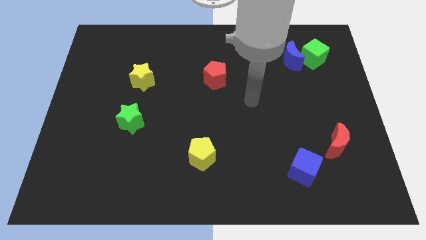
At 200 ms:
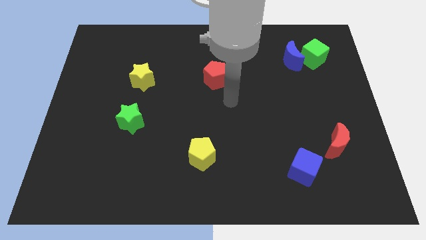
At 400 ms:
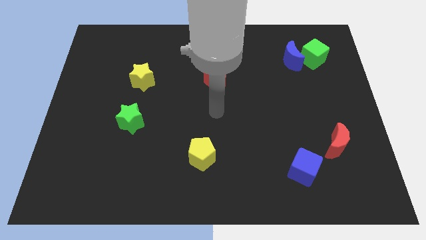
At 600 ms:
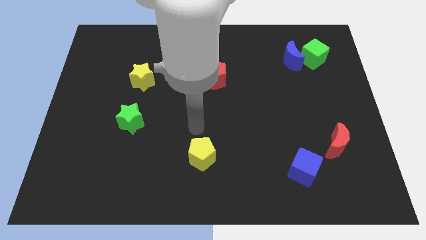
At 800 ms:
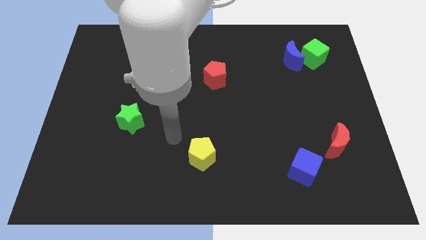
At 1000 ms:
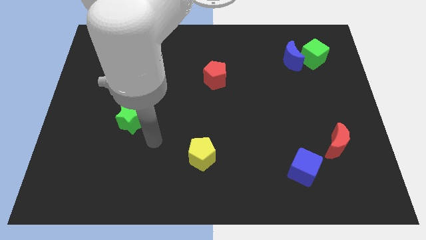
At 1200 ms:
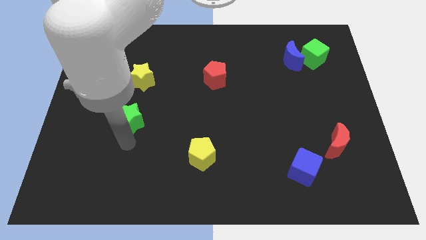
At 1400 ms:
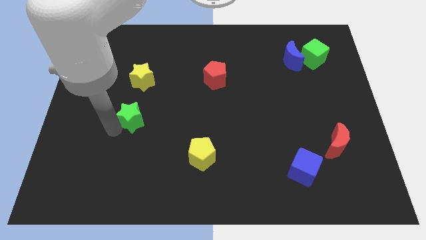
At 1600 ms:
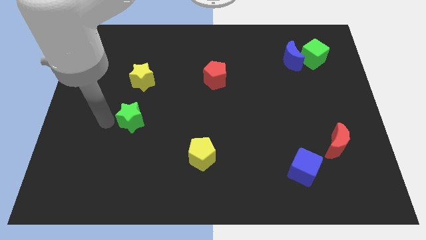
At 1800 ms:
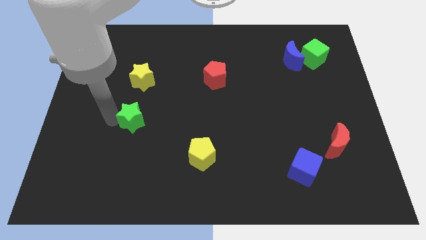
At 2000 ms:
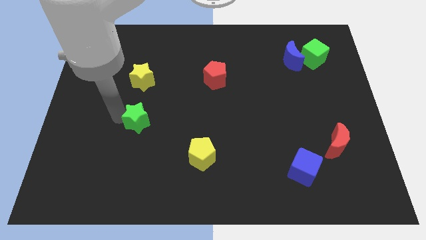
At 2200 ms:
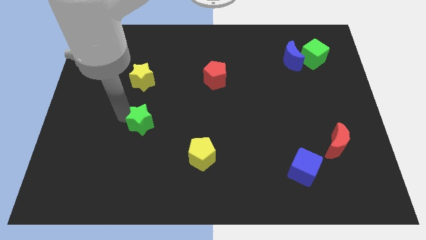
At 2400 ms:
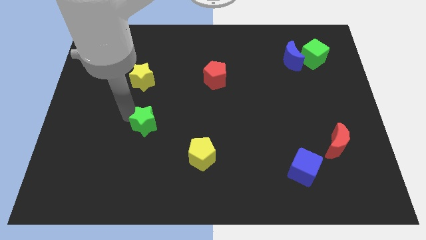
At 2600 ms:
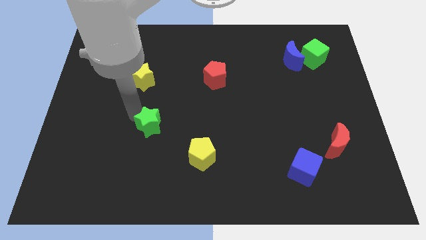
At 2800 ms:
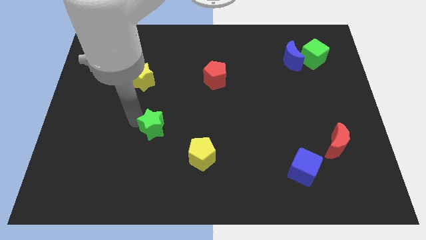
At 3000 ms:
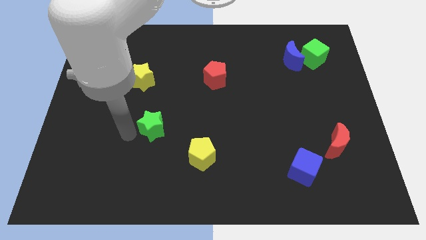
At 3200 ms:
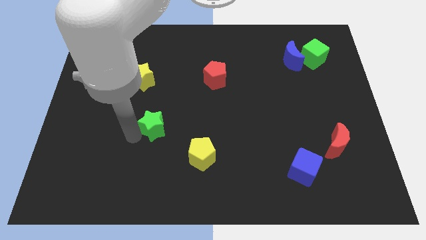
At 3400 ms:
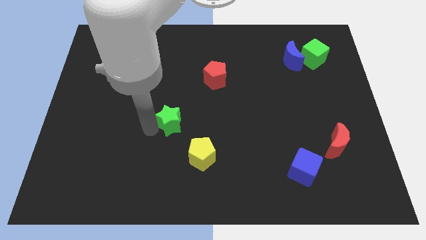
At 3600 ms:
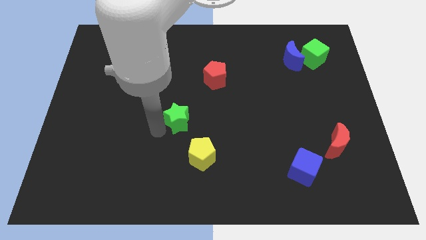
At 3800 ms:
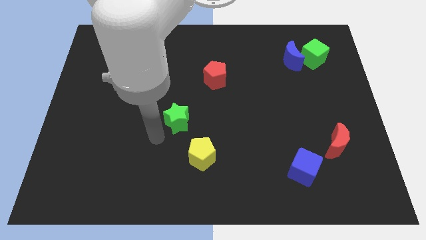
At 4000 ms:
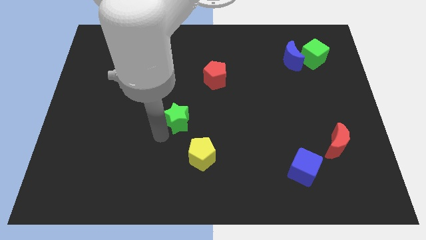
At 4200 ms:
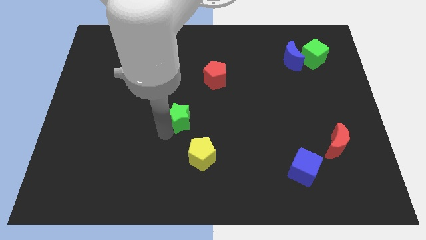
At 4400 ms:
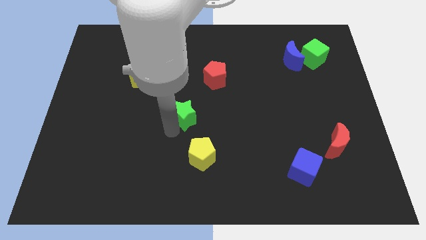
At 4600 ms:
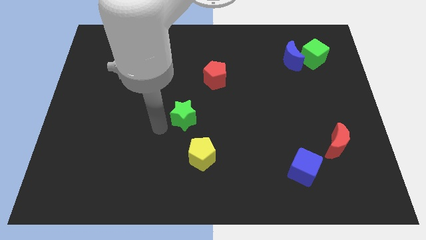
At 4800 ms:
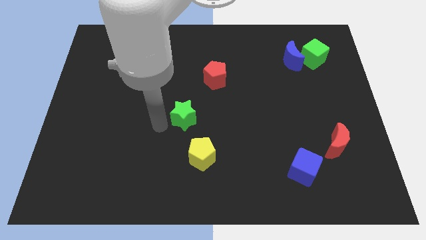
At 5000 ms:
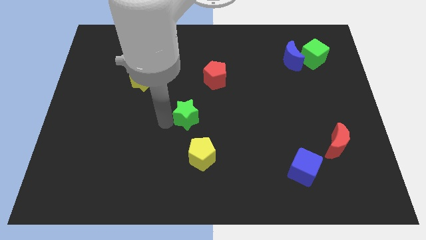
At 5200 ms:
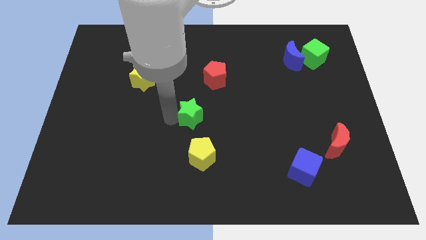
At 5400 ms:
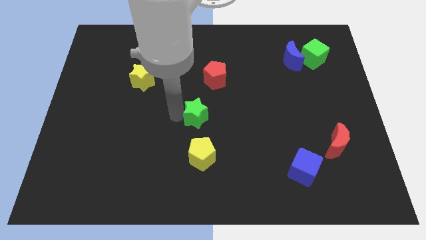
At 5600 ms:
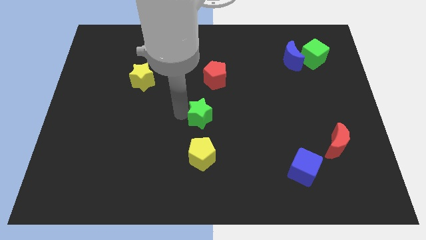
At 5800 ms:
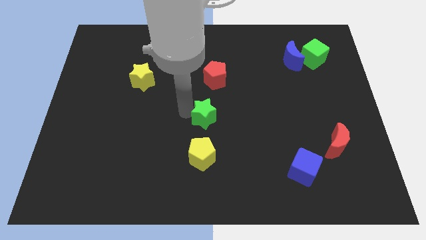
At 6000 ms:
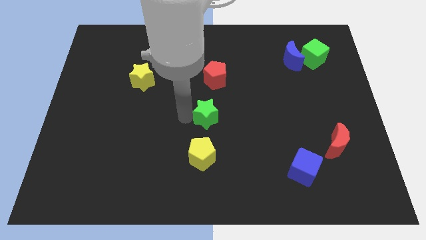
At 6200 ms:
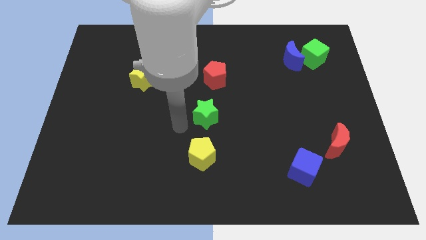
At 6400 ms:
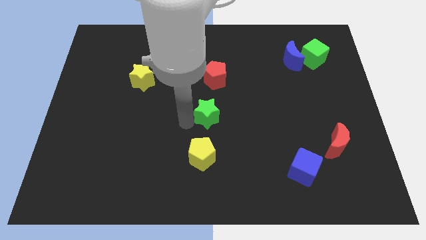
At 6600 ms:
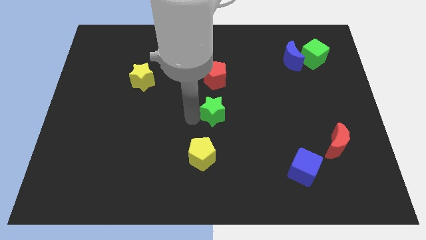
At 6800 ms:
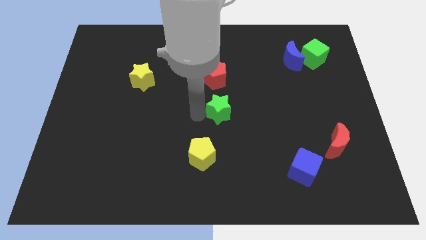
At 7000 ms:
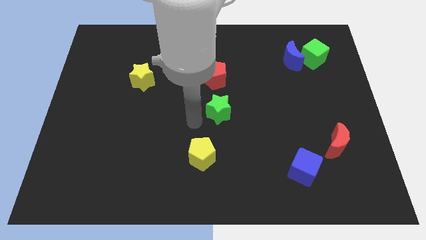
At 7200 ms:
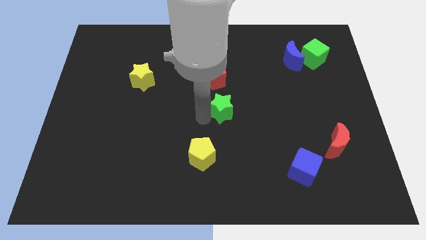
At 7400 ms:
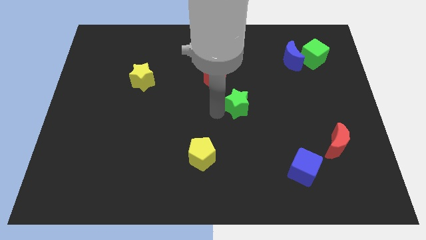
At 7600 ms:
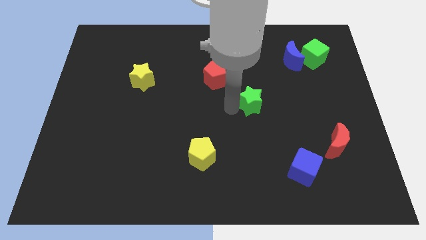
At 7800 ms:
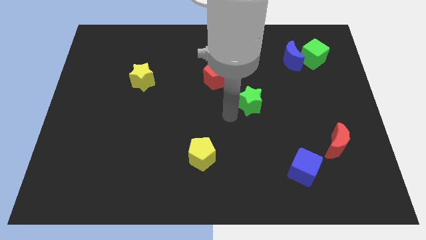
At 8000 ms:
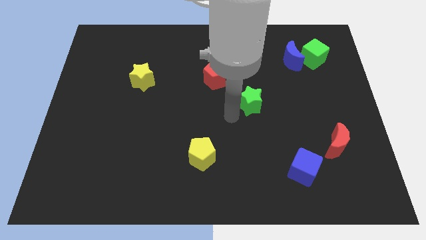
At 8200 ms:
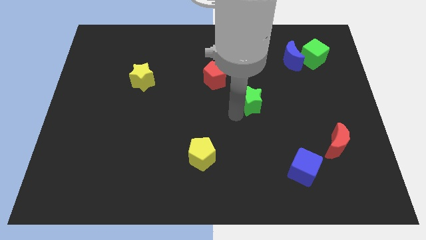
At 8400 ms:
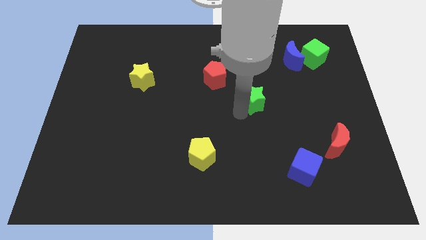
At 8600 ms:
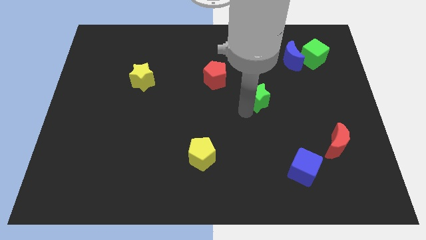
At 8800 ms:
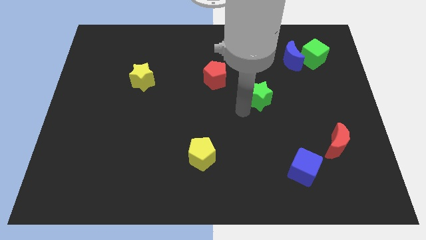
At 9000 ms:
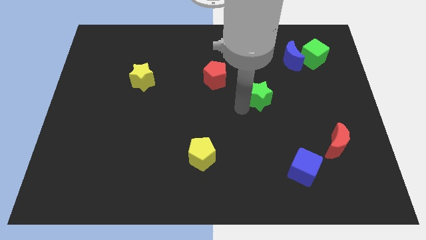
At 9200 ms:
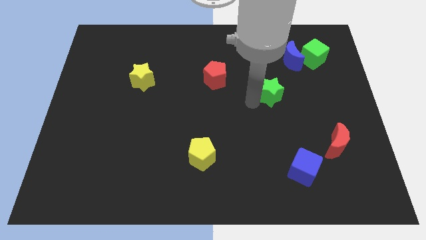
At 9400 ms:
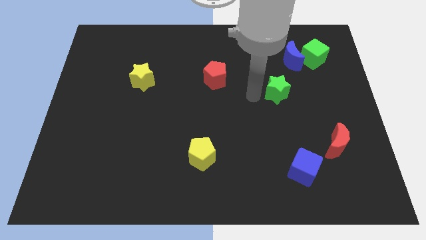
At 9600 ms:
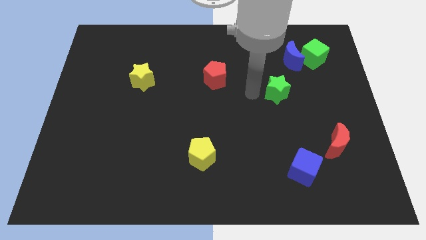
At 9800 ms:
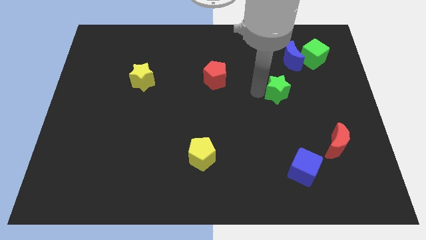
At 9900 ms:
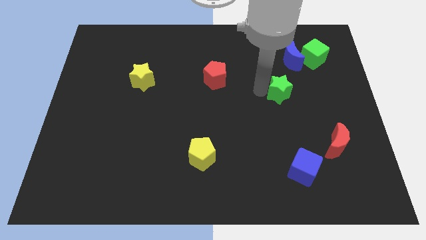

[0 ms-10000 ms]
put the green star to the bottom side of the blue moon

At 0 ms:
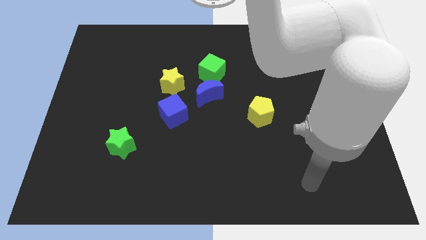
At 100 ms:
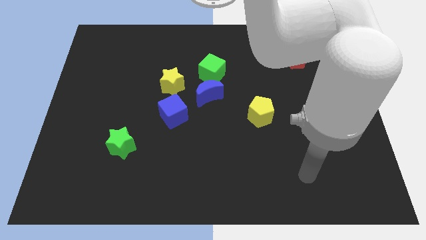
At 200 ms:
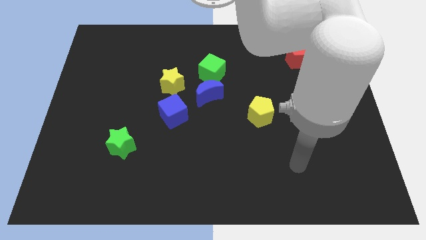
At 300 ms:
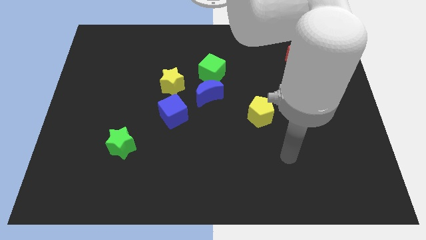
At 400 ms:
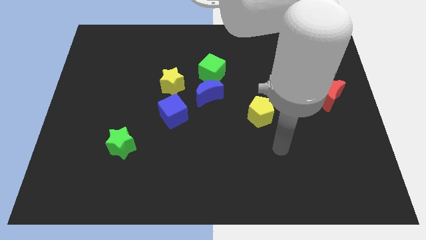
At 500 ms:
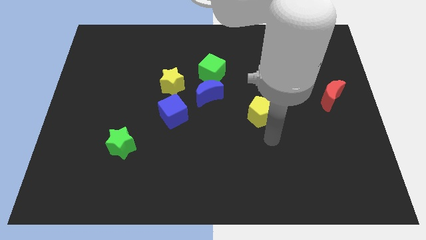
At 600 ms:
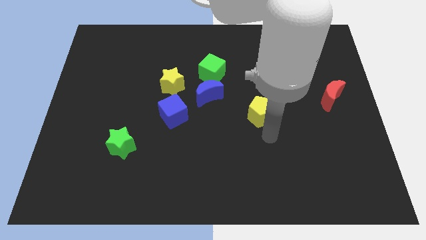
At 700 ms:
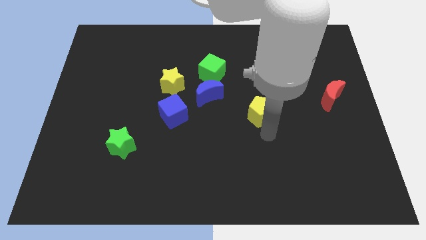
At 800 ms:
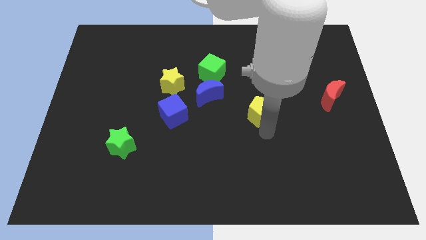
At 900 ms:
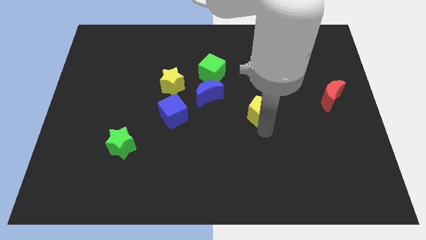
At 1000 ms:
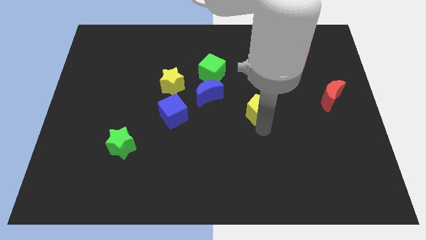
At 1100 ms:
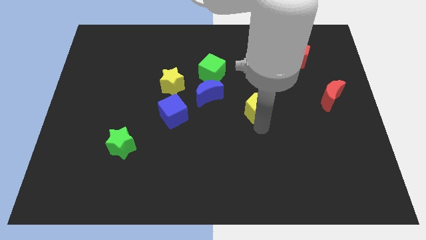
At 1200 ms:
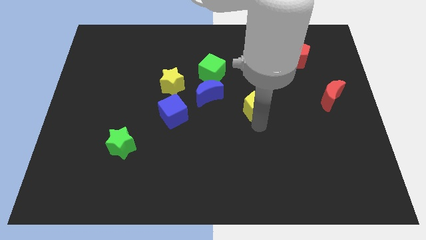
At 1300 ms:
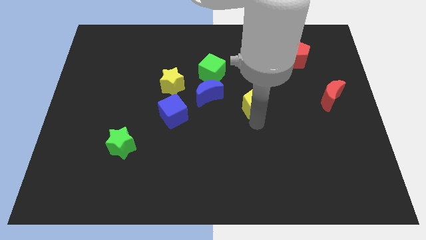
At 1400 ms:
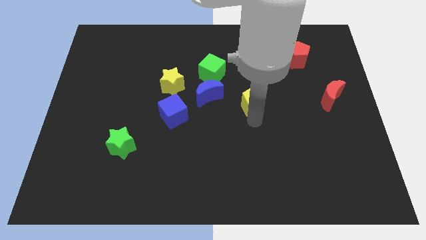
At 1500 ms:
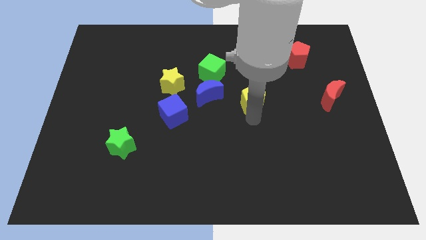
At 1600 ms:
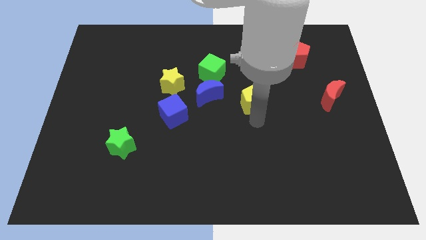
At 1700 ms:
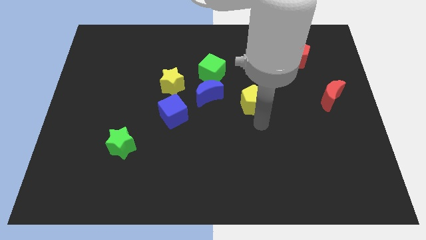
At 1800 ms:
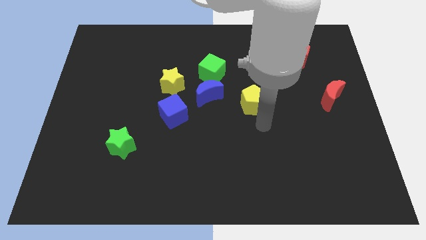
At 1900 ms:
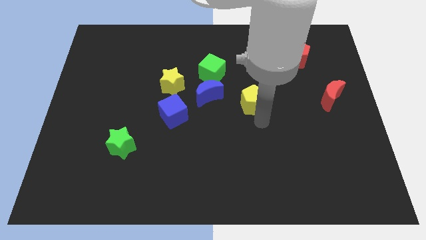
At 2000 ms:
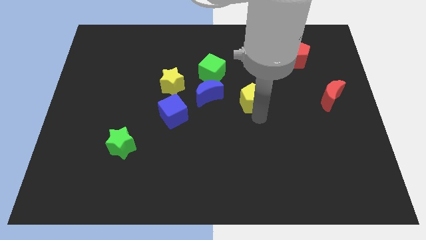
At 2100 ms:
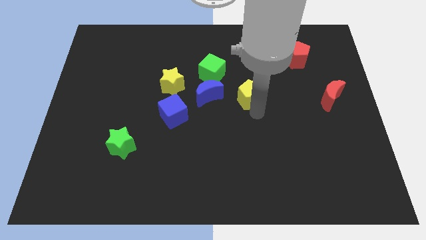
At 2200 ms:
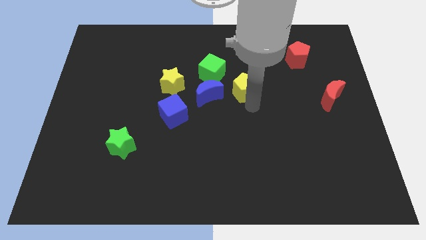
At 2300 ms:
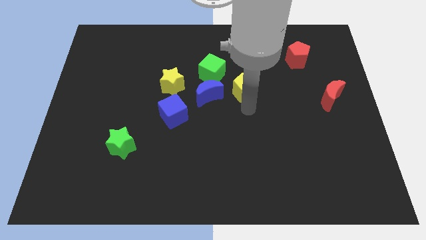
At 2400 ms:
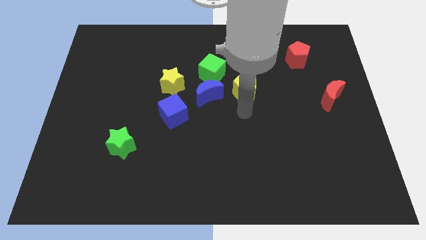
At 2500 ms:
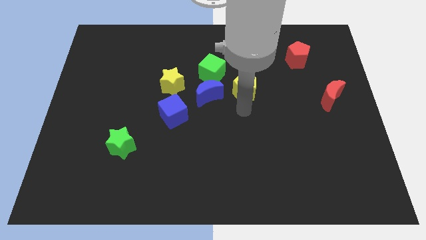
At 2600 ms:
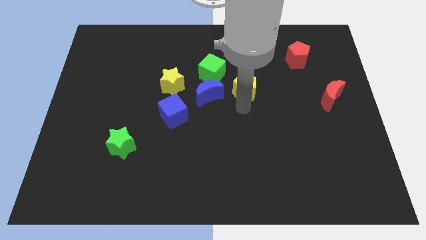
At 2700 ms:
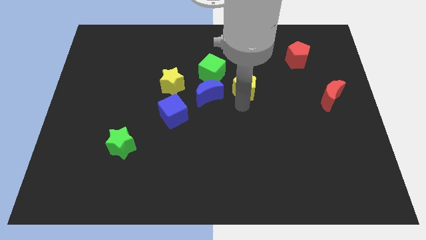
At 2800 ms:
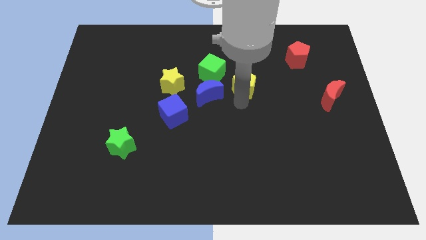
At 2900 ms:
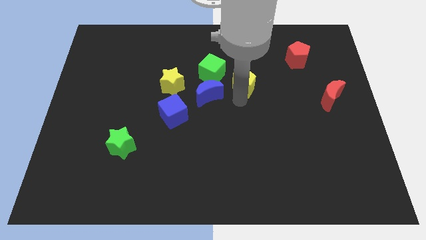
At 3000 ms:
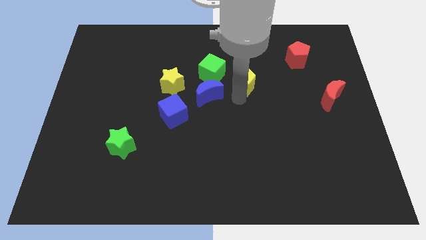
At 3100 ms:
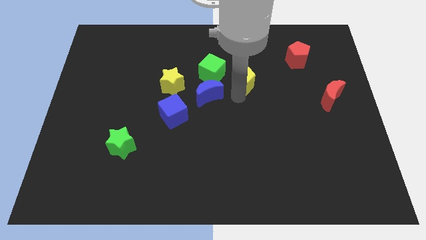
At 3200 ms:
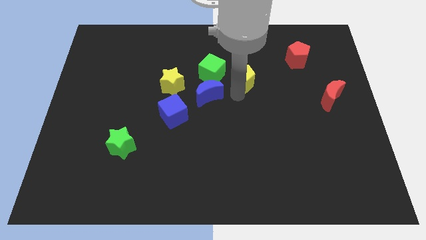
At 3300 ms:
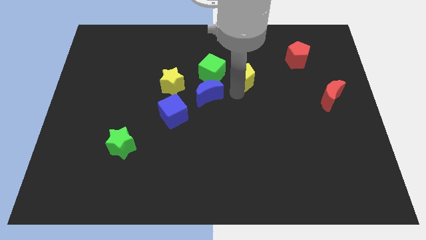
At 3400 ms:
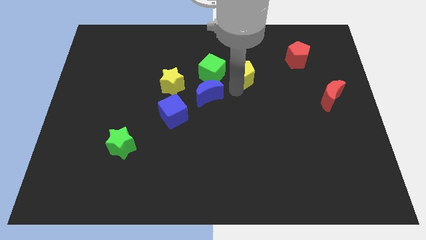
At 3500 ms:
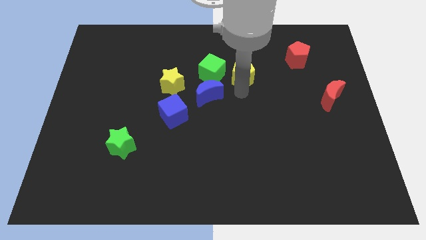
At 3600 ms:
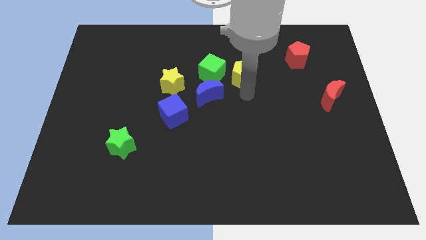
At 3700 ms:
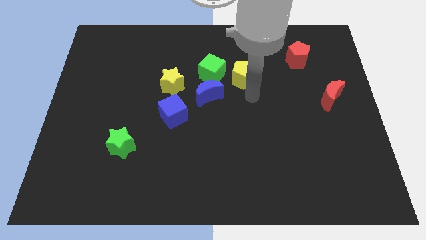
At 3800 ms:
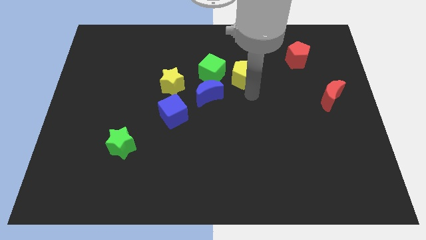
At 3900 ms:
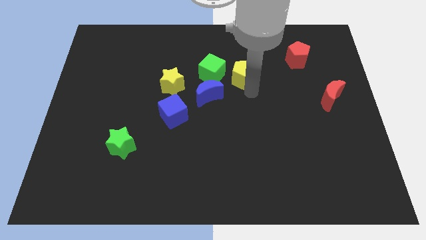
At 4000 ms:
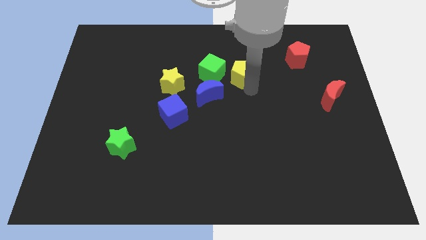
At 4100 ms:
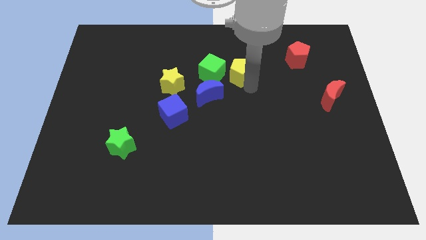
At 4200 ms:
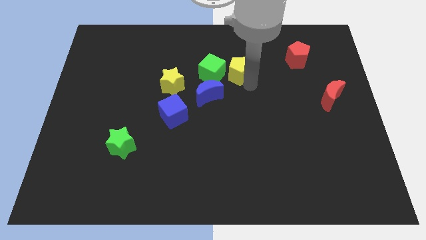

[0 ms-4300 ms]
slide the yellow pentagon to the top right side of the green cube
